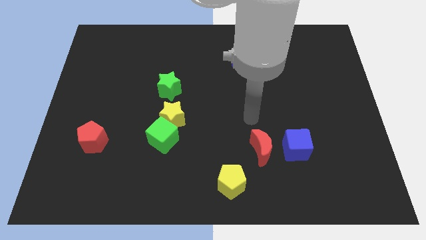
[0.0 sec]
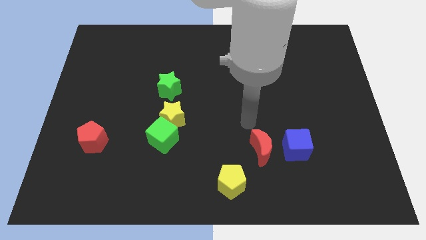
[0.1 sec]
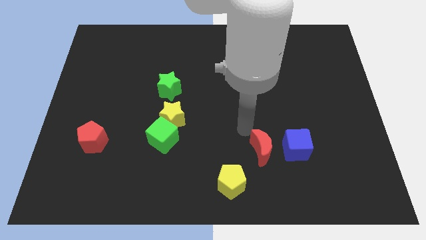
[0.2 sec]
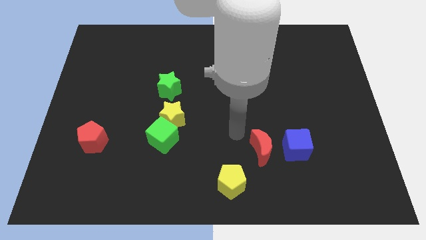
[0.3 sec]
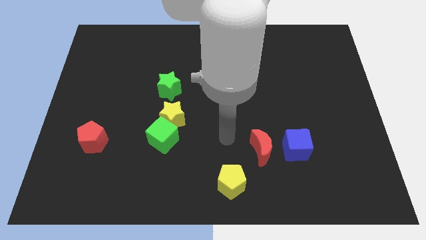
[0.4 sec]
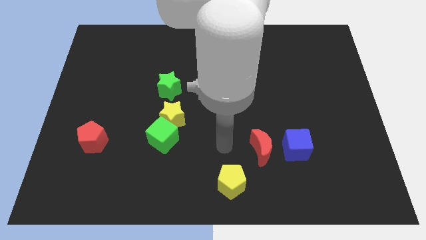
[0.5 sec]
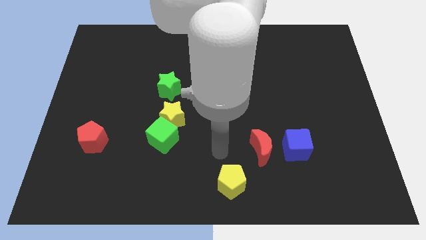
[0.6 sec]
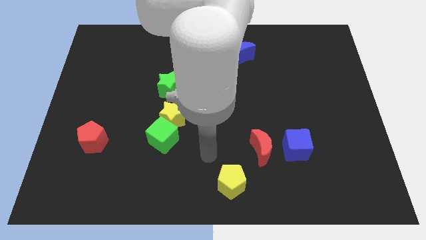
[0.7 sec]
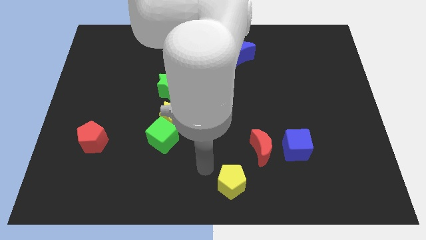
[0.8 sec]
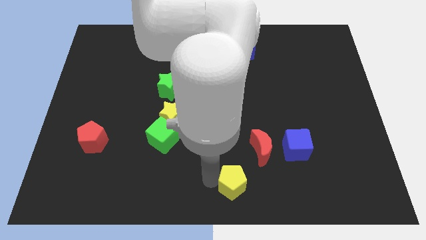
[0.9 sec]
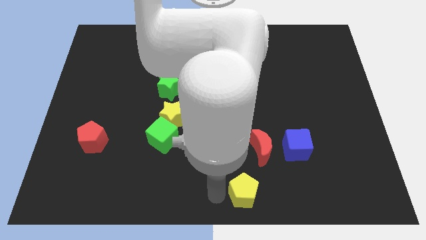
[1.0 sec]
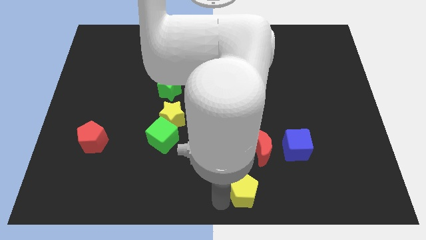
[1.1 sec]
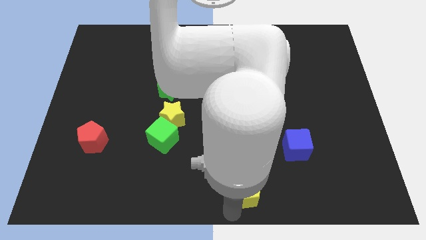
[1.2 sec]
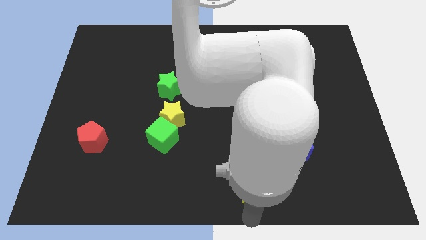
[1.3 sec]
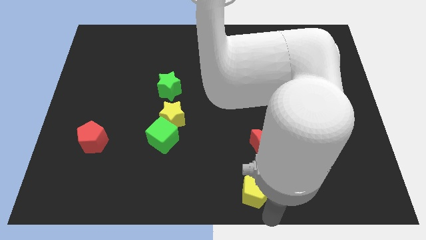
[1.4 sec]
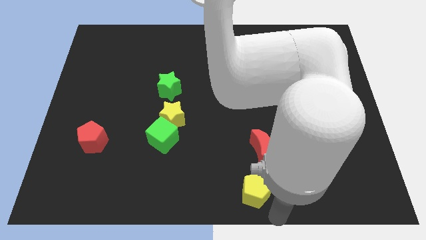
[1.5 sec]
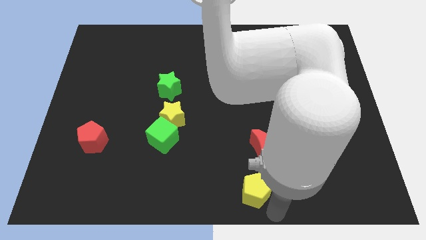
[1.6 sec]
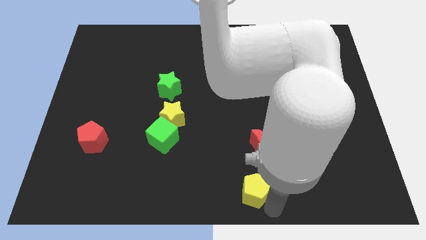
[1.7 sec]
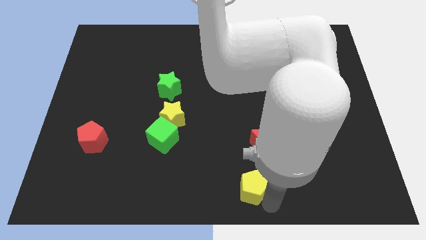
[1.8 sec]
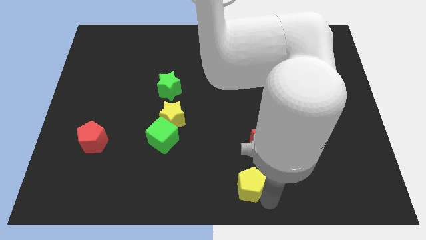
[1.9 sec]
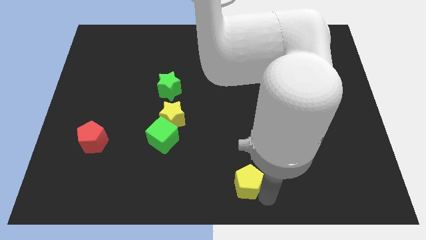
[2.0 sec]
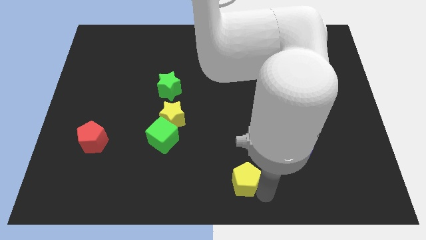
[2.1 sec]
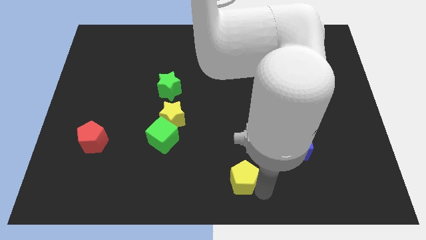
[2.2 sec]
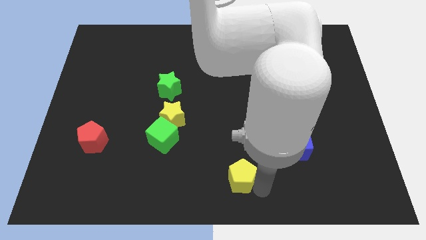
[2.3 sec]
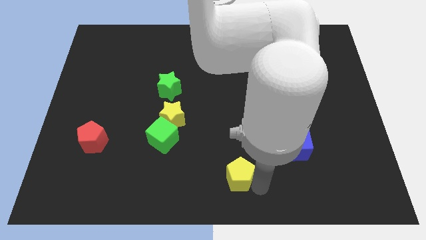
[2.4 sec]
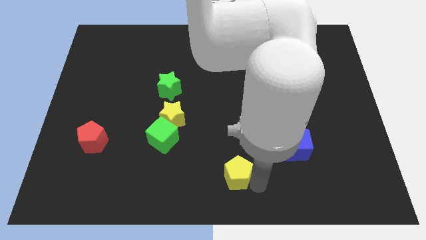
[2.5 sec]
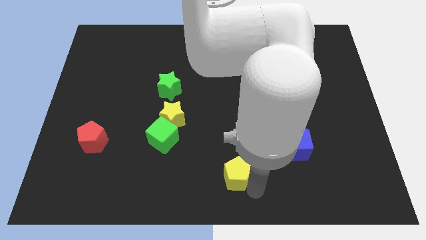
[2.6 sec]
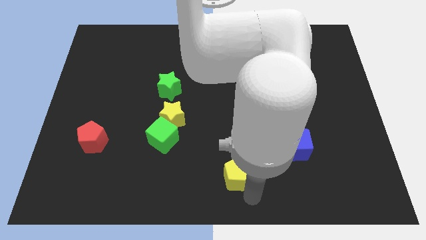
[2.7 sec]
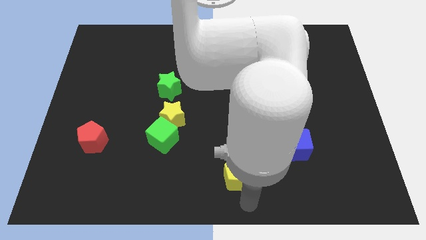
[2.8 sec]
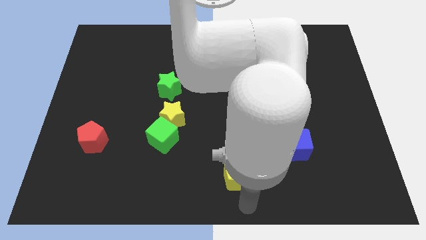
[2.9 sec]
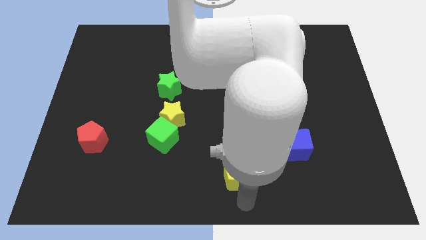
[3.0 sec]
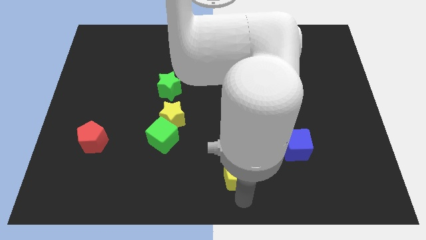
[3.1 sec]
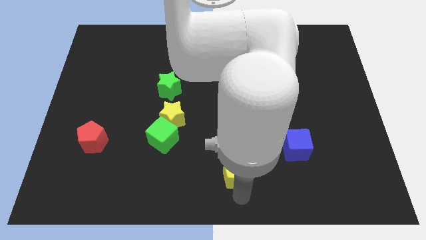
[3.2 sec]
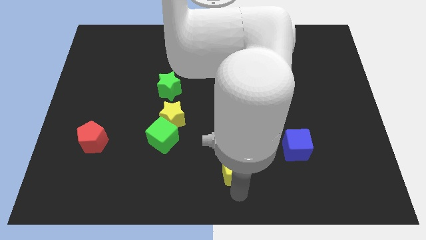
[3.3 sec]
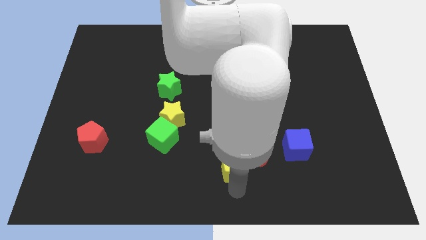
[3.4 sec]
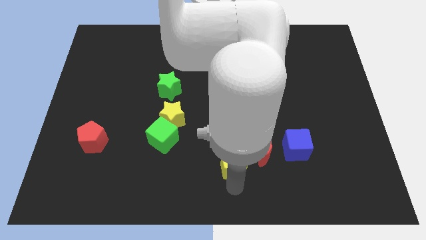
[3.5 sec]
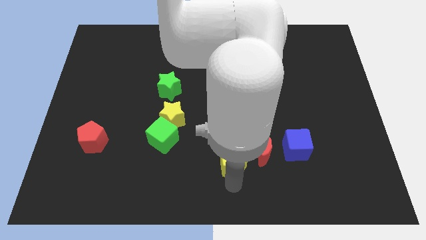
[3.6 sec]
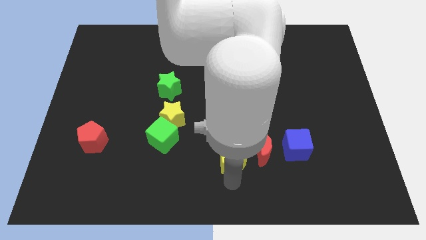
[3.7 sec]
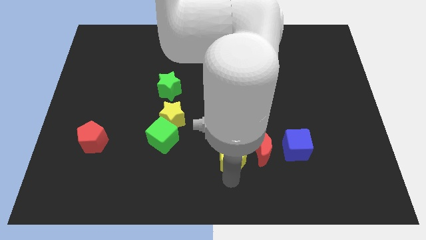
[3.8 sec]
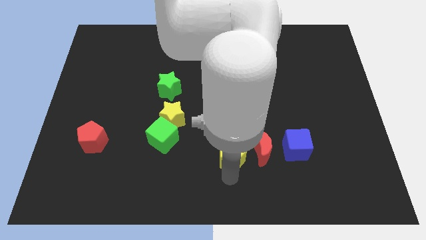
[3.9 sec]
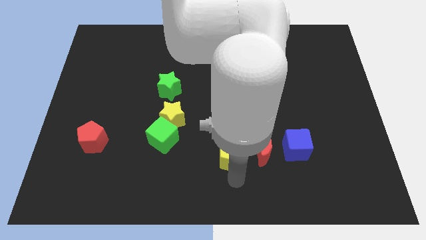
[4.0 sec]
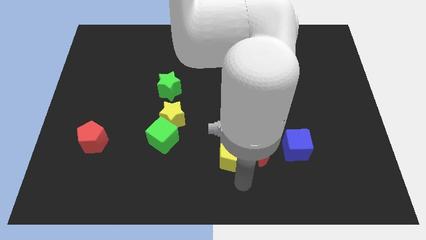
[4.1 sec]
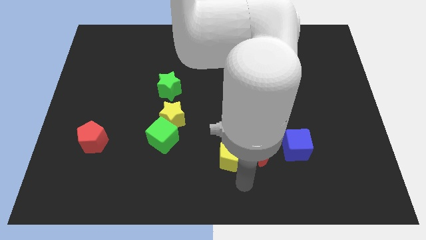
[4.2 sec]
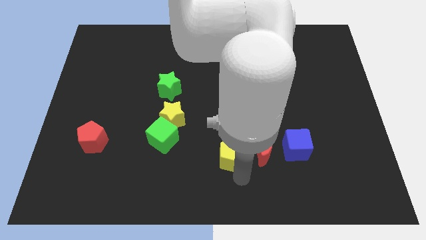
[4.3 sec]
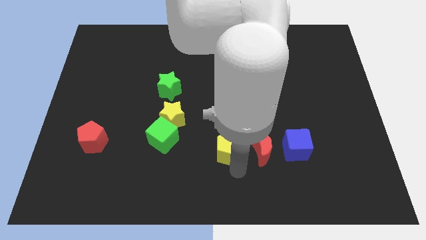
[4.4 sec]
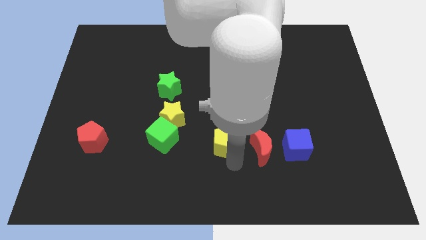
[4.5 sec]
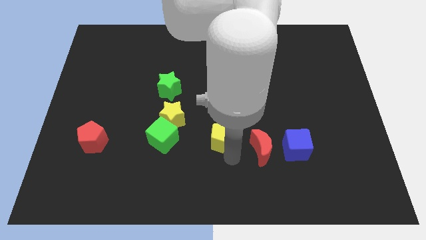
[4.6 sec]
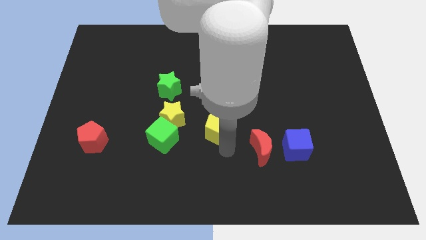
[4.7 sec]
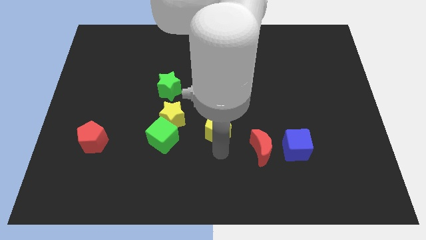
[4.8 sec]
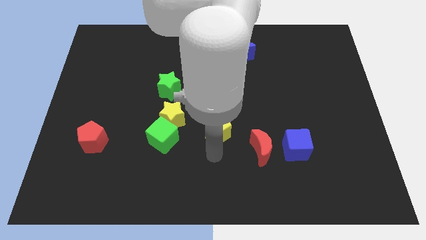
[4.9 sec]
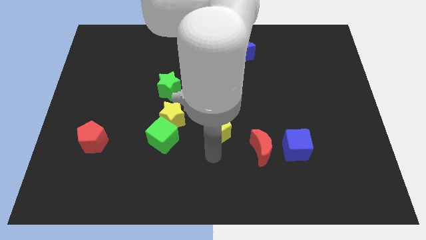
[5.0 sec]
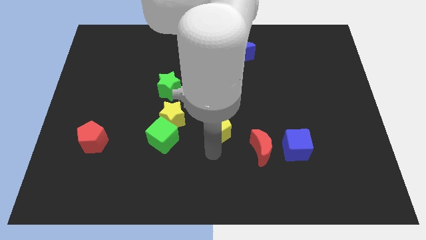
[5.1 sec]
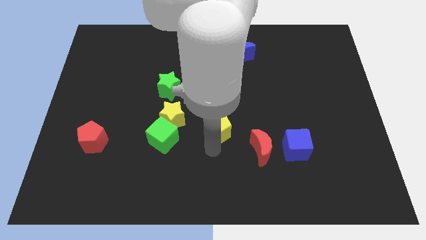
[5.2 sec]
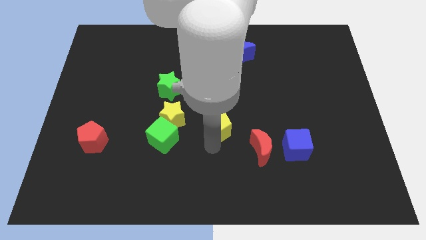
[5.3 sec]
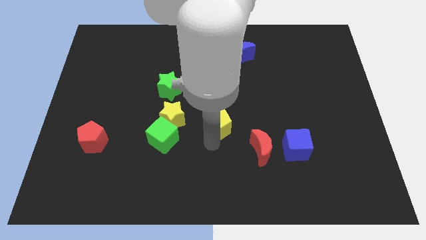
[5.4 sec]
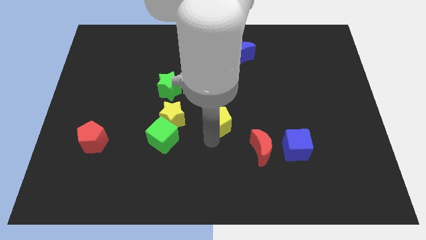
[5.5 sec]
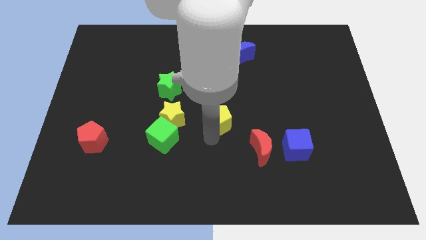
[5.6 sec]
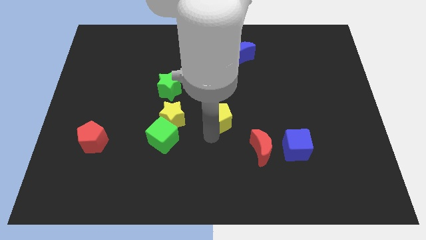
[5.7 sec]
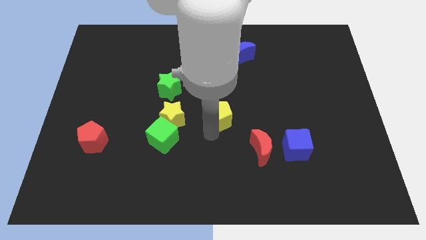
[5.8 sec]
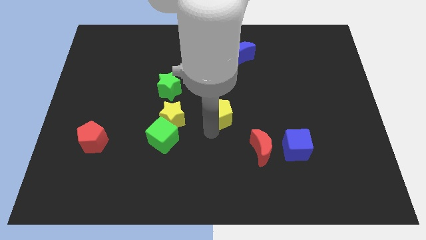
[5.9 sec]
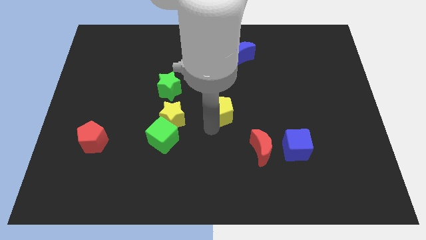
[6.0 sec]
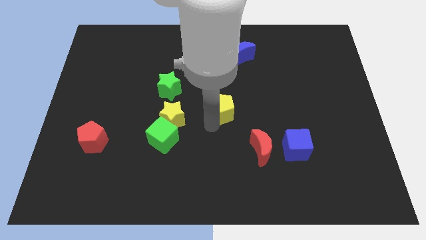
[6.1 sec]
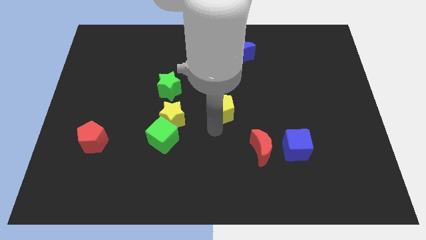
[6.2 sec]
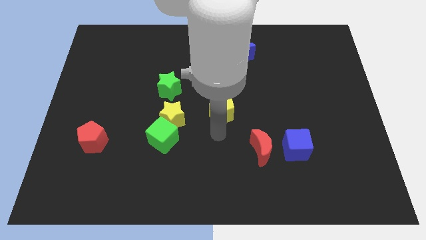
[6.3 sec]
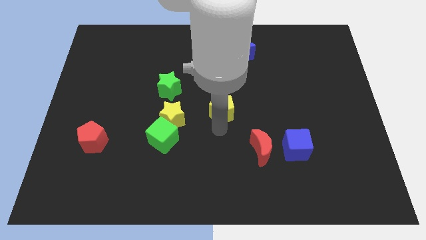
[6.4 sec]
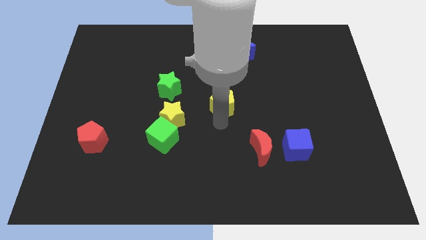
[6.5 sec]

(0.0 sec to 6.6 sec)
move the yellow pentagon upwards

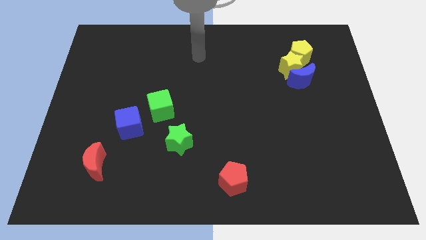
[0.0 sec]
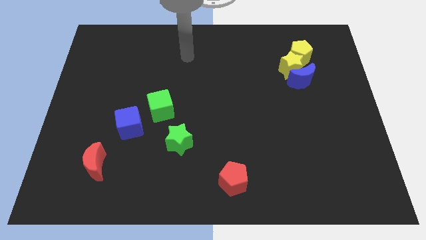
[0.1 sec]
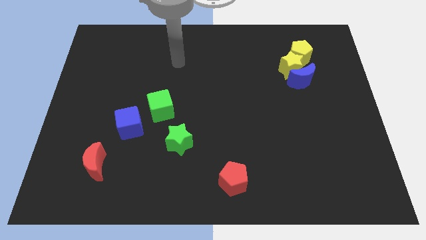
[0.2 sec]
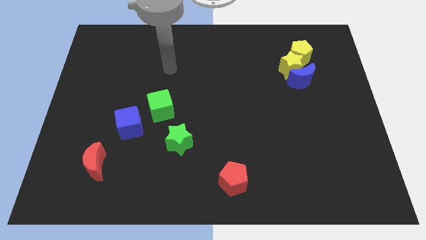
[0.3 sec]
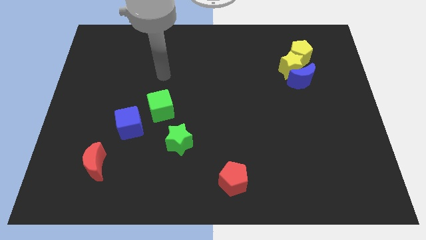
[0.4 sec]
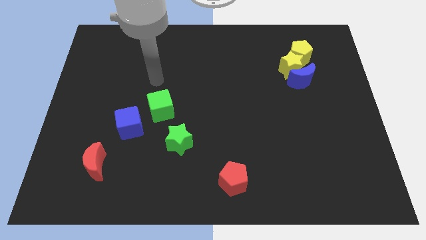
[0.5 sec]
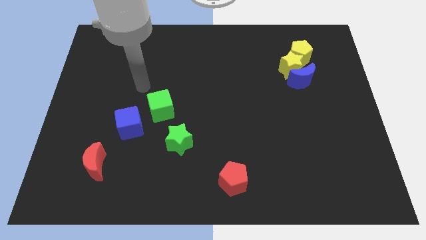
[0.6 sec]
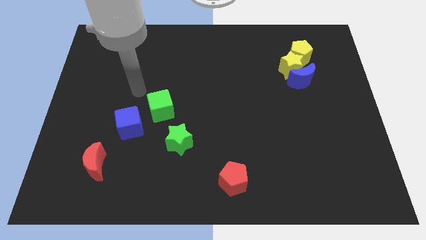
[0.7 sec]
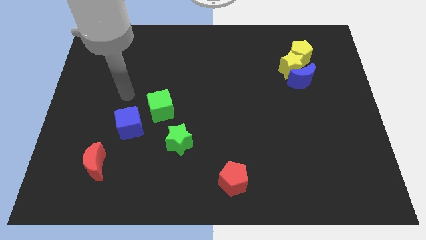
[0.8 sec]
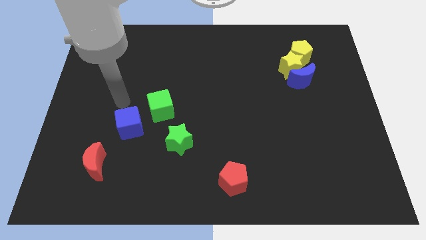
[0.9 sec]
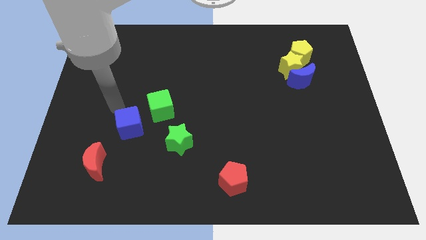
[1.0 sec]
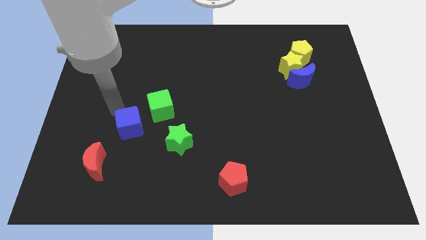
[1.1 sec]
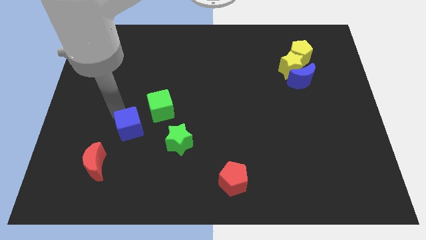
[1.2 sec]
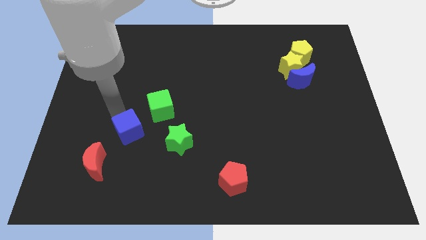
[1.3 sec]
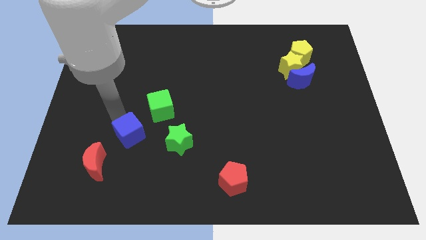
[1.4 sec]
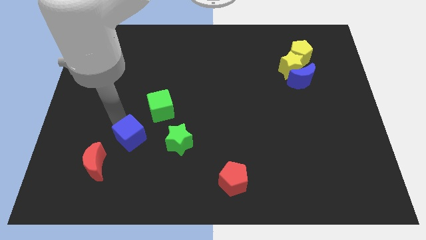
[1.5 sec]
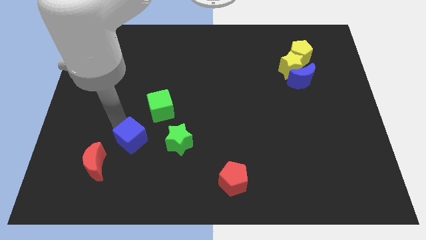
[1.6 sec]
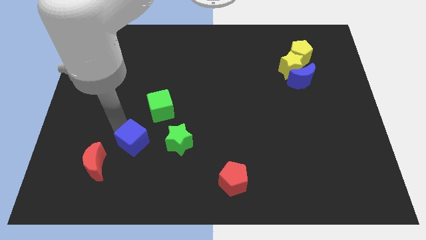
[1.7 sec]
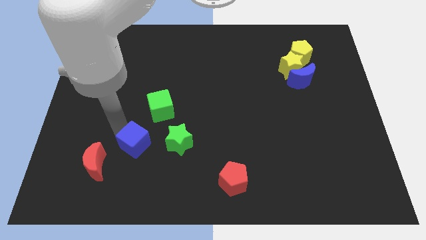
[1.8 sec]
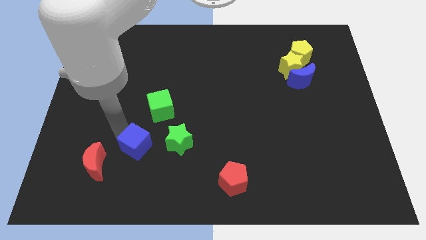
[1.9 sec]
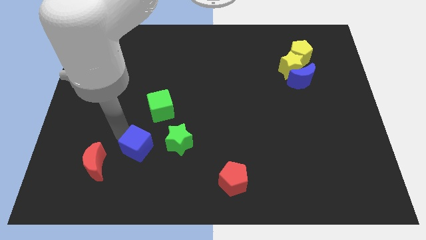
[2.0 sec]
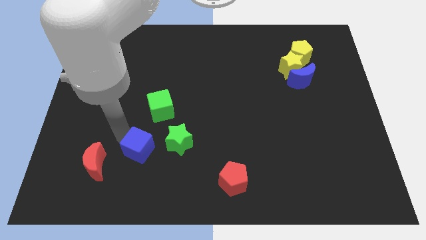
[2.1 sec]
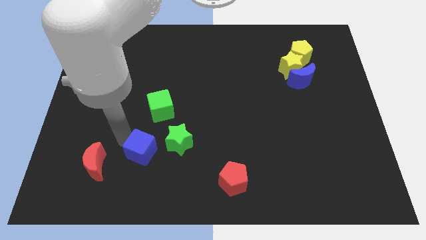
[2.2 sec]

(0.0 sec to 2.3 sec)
move the blue cube a little bit down and to the right diagonally
